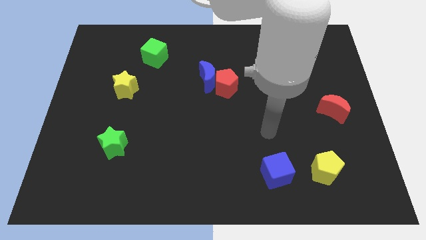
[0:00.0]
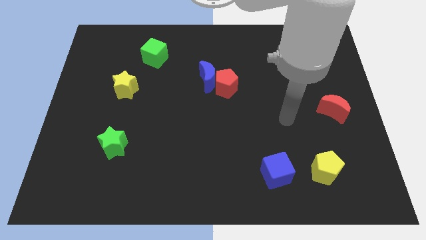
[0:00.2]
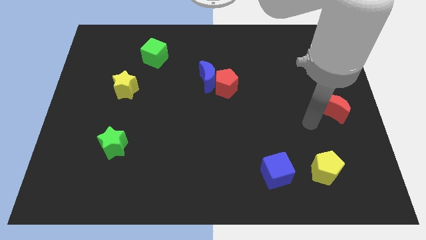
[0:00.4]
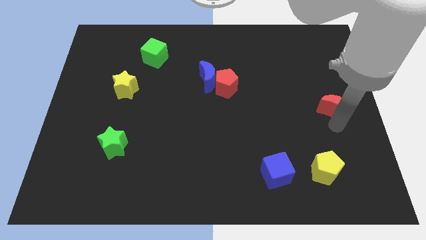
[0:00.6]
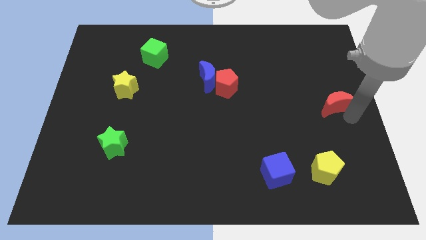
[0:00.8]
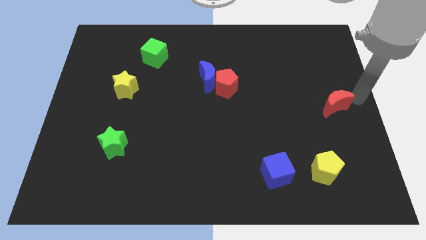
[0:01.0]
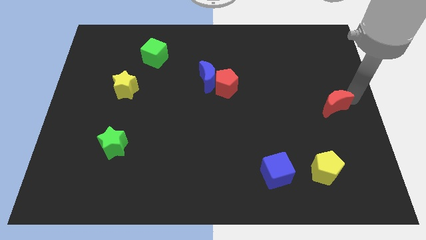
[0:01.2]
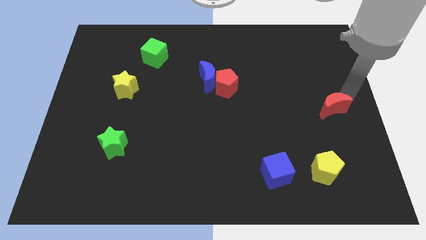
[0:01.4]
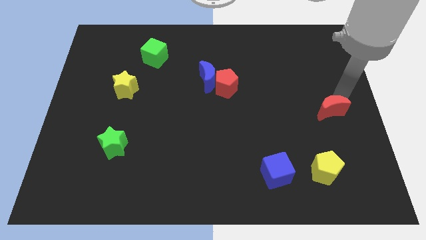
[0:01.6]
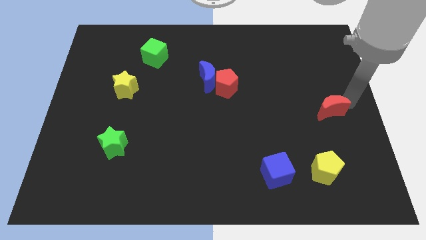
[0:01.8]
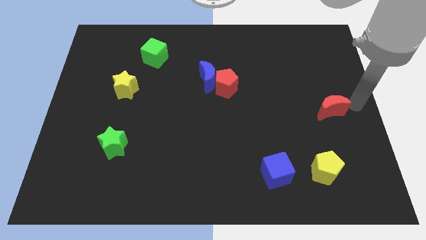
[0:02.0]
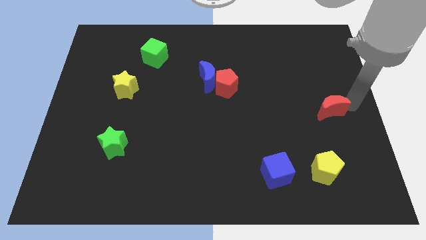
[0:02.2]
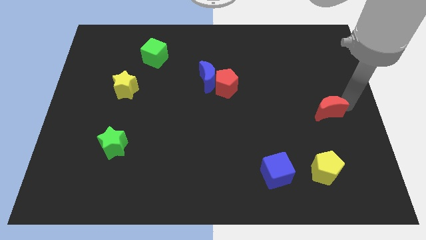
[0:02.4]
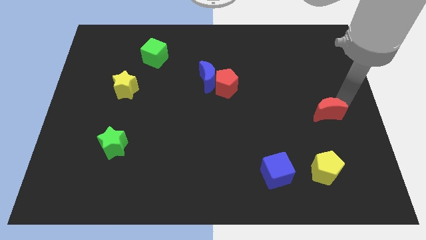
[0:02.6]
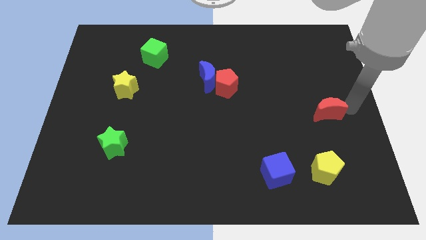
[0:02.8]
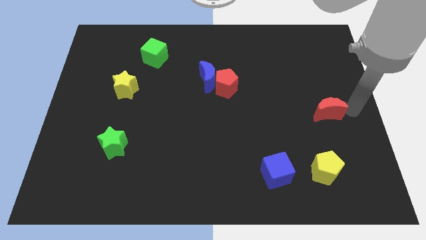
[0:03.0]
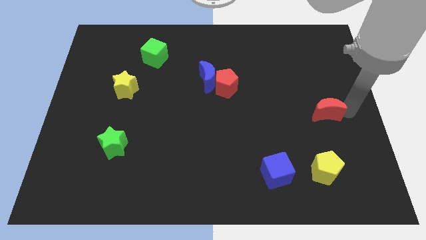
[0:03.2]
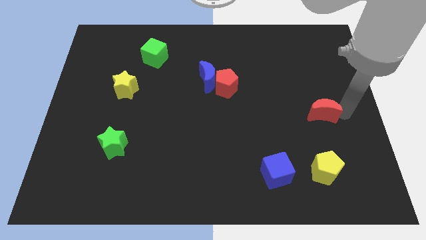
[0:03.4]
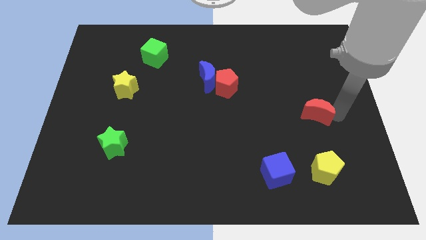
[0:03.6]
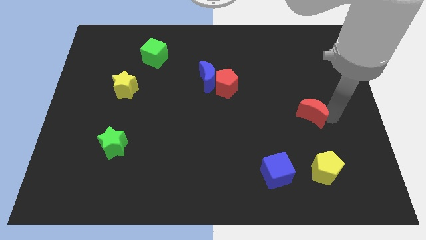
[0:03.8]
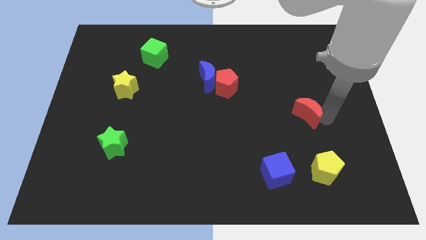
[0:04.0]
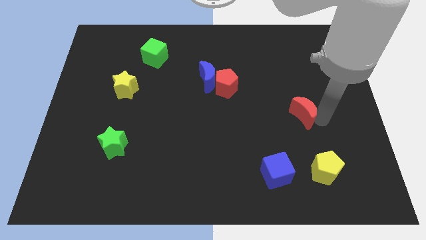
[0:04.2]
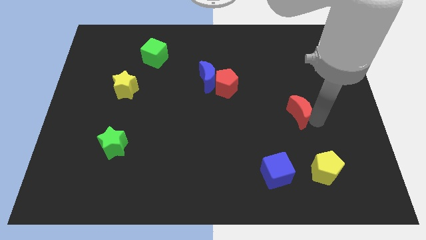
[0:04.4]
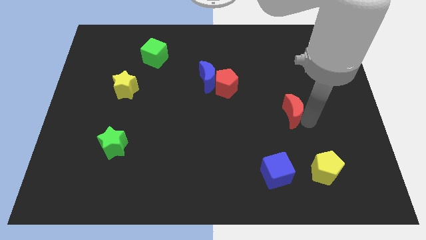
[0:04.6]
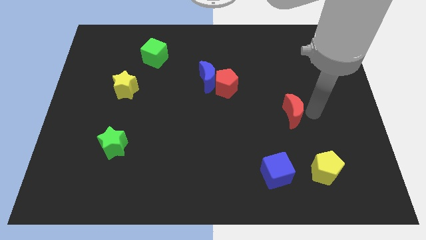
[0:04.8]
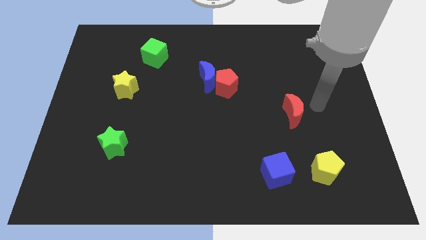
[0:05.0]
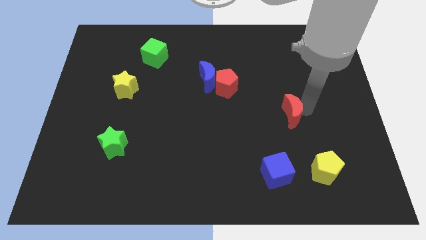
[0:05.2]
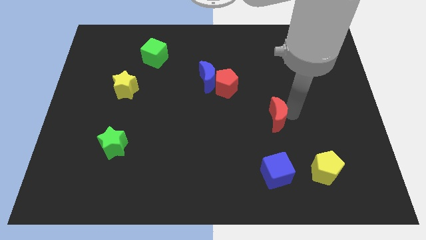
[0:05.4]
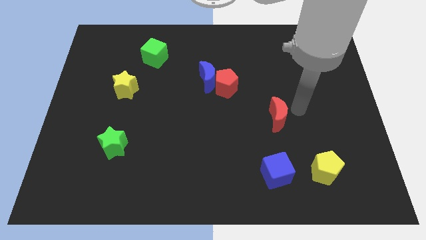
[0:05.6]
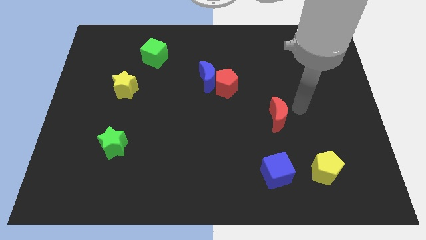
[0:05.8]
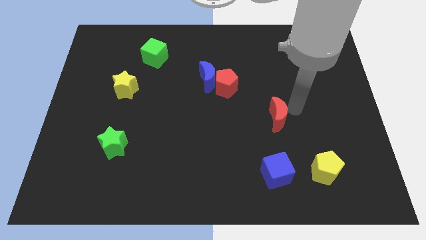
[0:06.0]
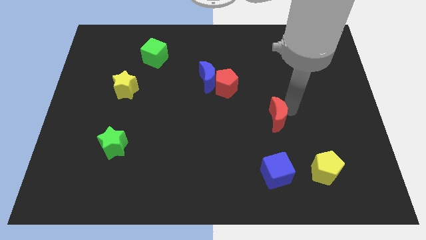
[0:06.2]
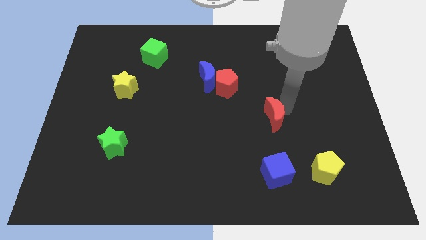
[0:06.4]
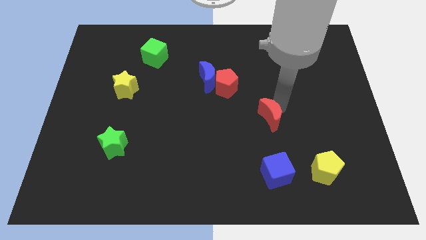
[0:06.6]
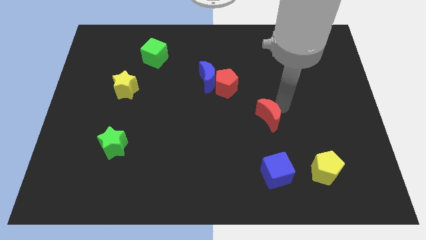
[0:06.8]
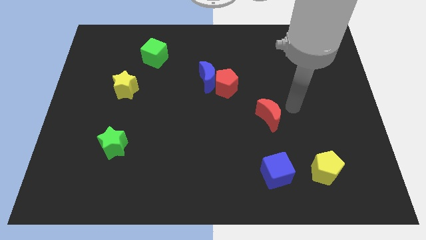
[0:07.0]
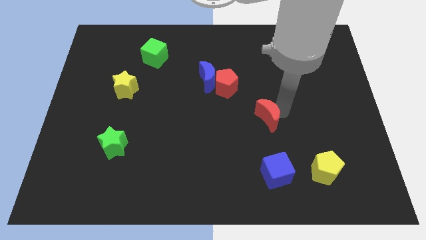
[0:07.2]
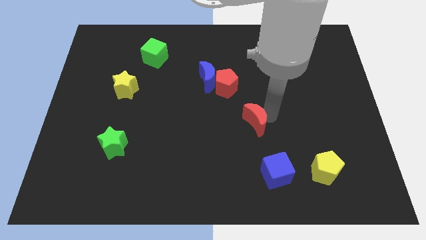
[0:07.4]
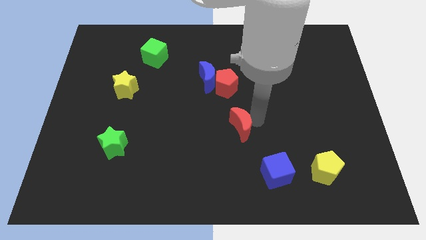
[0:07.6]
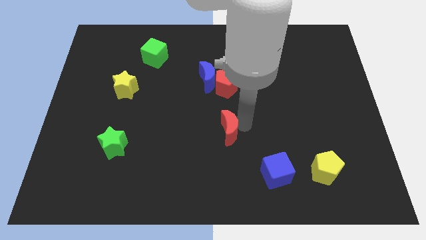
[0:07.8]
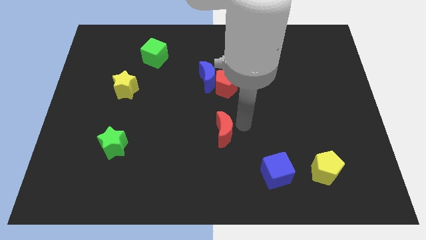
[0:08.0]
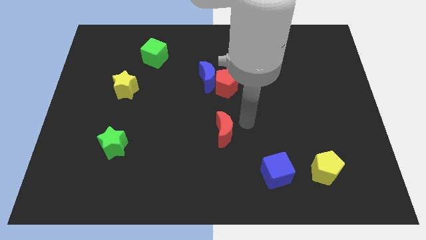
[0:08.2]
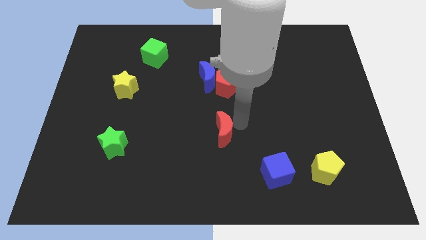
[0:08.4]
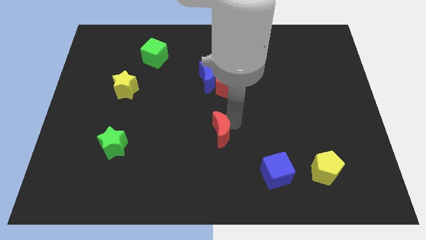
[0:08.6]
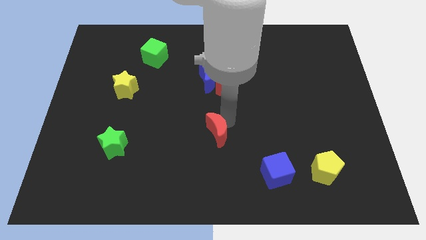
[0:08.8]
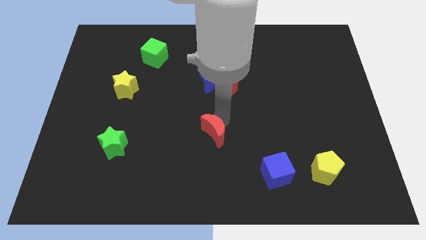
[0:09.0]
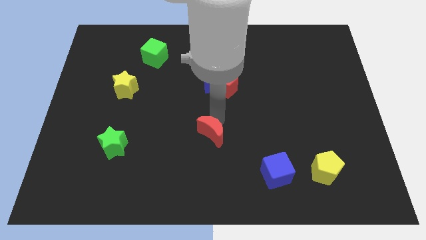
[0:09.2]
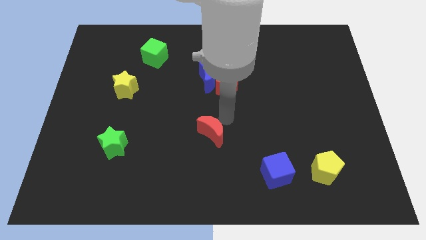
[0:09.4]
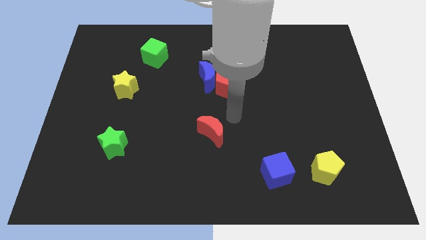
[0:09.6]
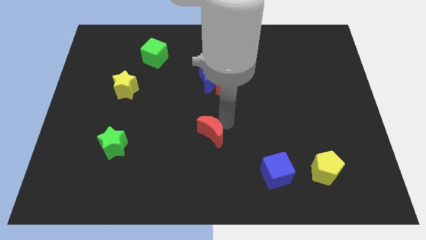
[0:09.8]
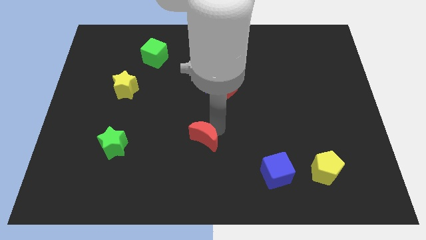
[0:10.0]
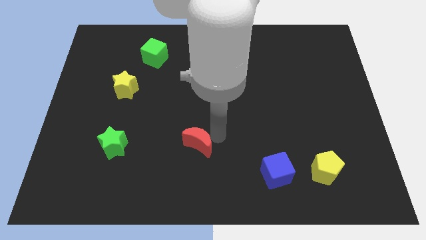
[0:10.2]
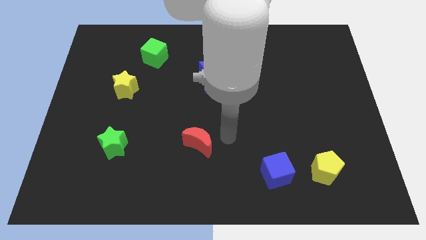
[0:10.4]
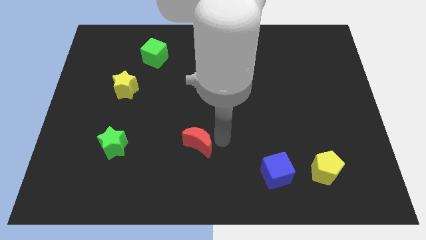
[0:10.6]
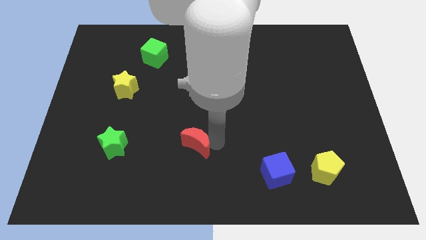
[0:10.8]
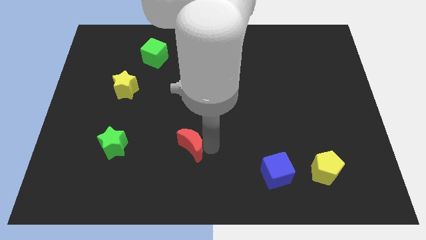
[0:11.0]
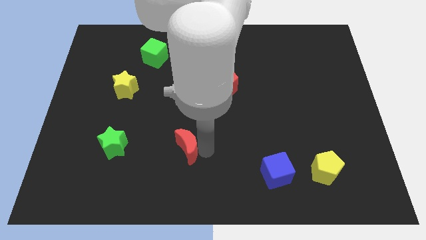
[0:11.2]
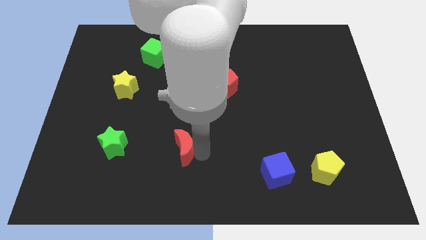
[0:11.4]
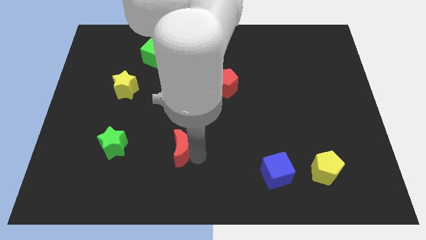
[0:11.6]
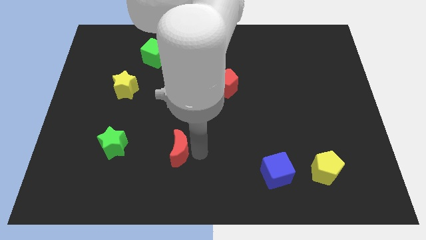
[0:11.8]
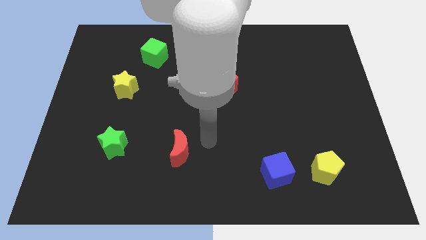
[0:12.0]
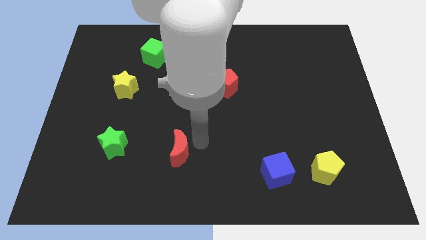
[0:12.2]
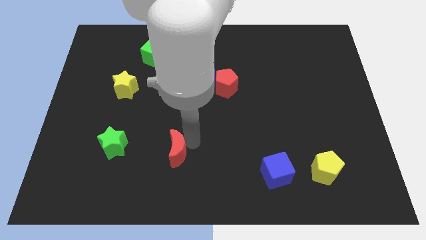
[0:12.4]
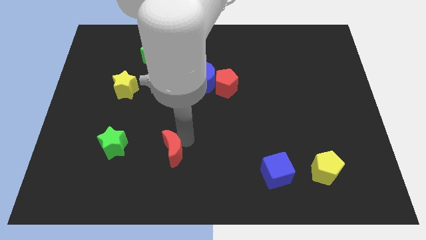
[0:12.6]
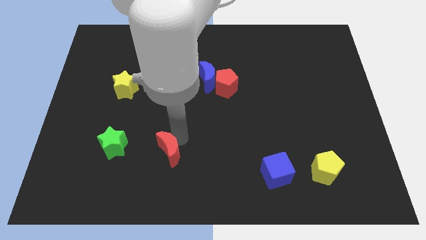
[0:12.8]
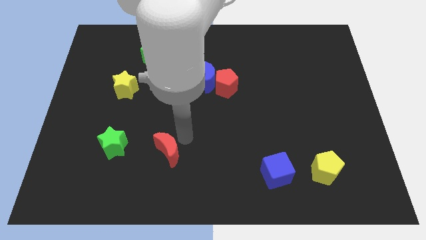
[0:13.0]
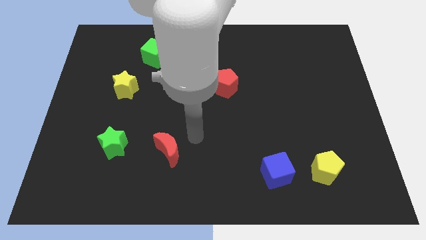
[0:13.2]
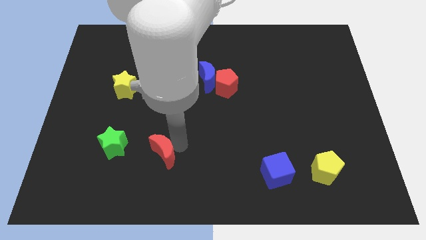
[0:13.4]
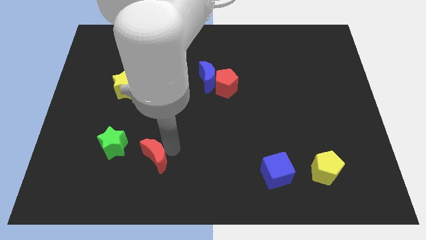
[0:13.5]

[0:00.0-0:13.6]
slide the red moon diagonally down and to the right of the green star

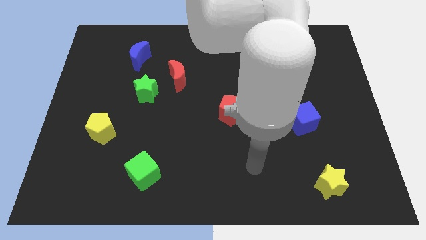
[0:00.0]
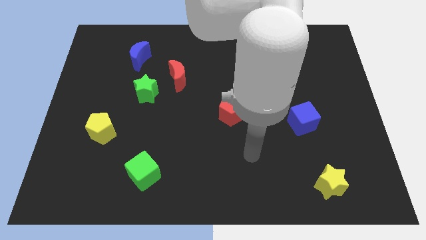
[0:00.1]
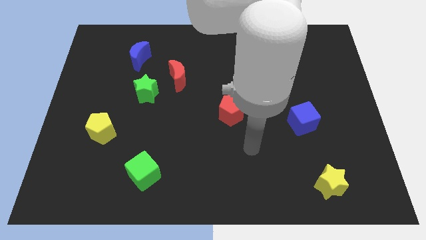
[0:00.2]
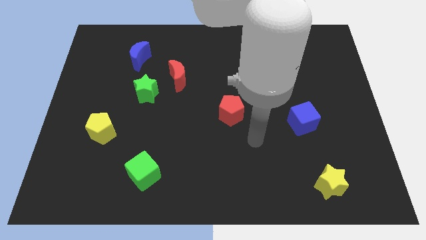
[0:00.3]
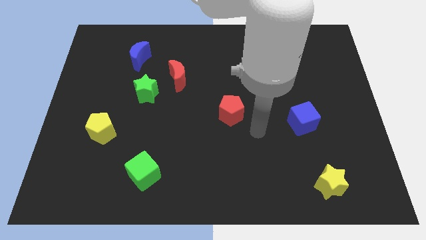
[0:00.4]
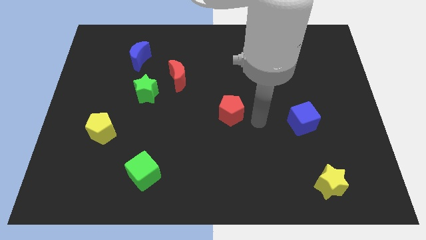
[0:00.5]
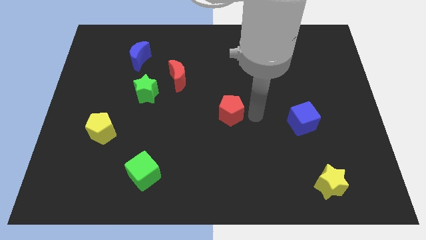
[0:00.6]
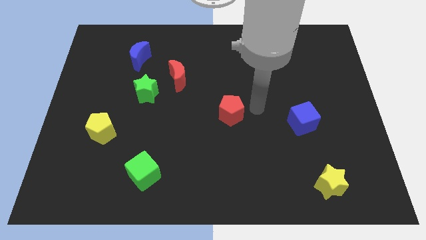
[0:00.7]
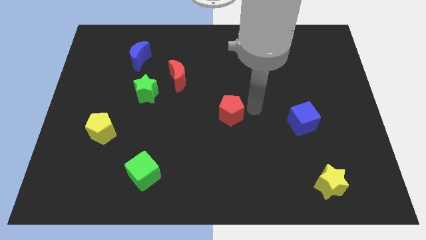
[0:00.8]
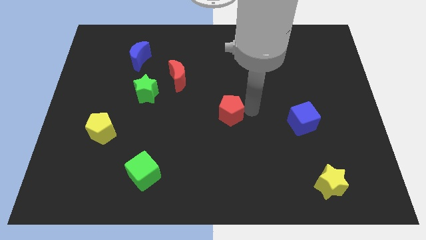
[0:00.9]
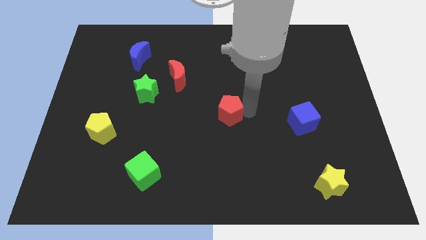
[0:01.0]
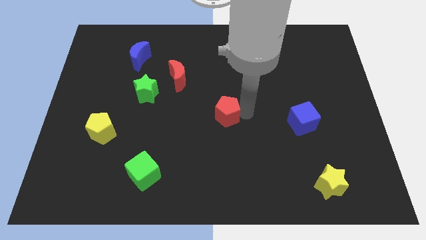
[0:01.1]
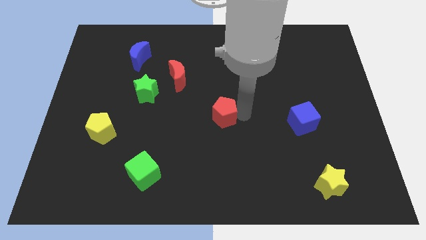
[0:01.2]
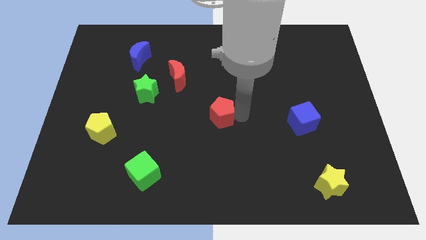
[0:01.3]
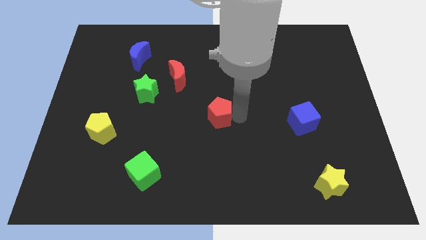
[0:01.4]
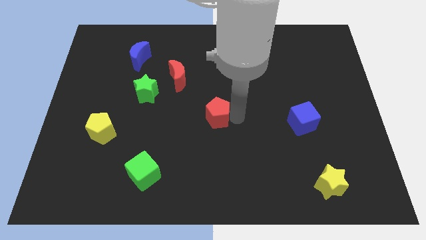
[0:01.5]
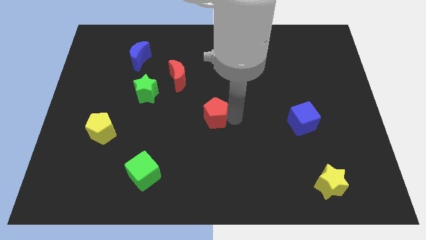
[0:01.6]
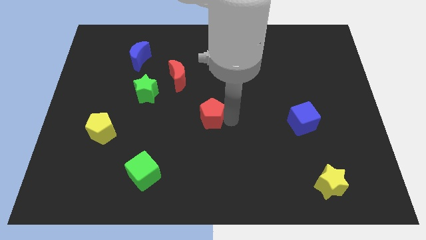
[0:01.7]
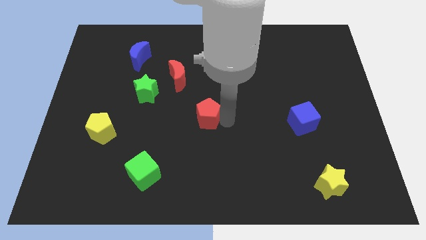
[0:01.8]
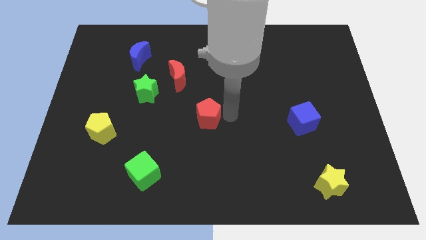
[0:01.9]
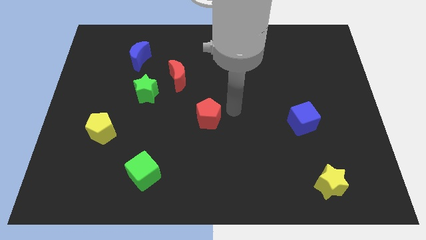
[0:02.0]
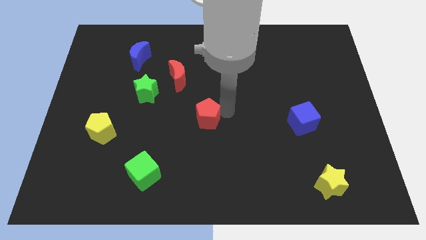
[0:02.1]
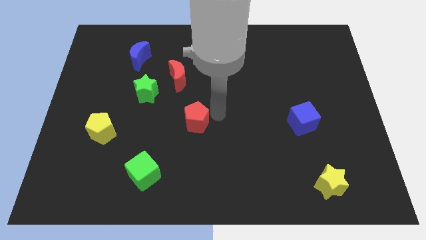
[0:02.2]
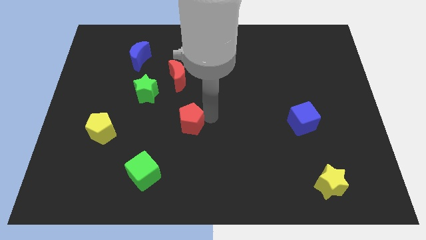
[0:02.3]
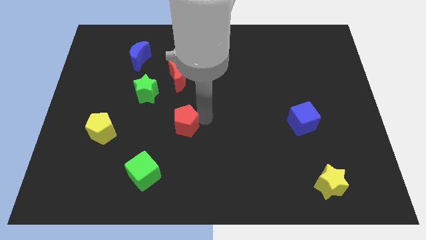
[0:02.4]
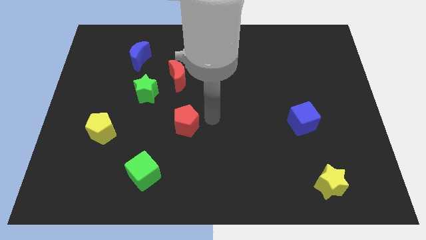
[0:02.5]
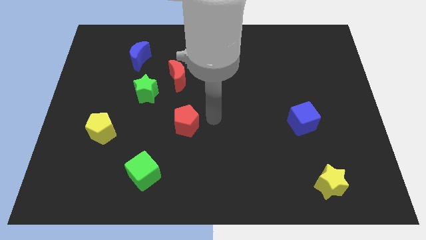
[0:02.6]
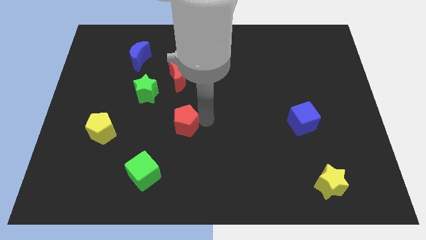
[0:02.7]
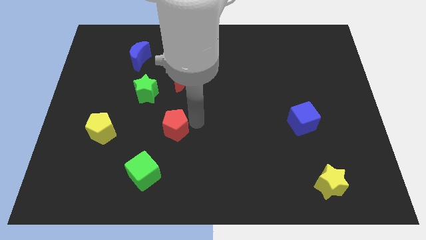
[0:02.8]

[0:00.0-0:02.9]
slide the red pentagon just right of the yellow pentagon
